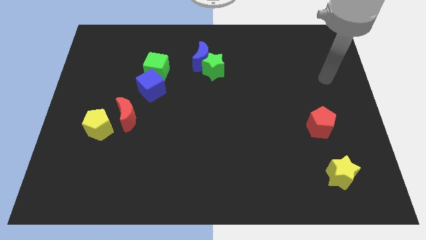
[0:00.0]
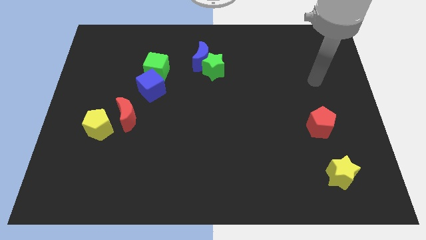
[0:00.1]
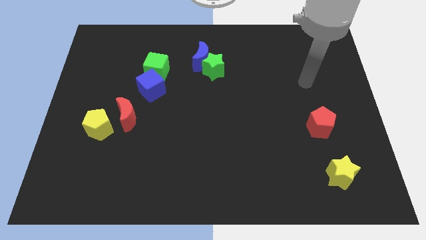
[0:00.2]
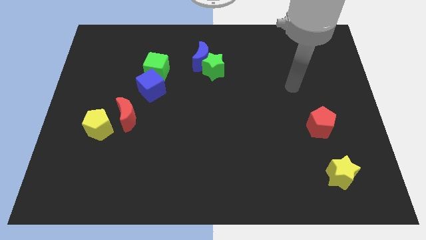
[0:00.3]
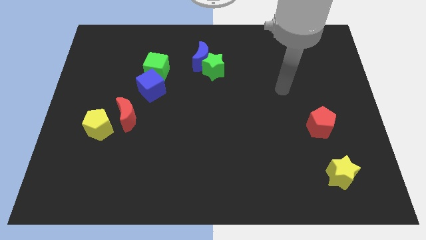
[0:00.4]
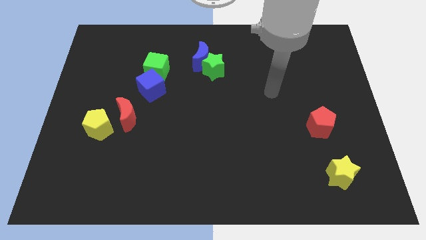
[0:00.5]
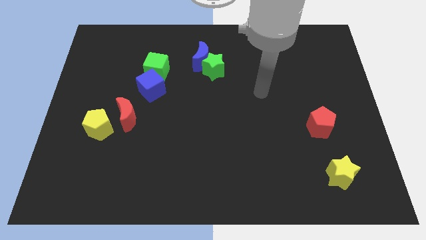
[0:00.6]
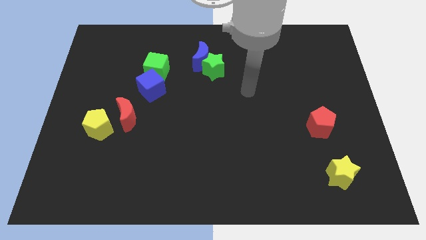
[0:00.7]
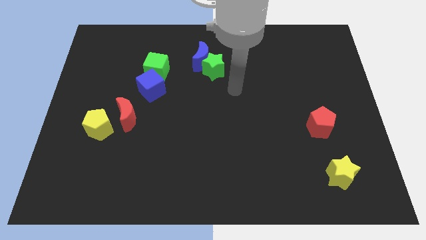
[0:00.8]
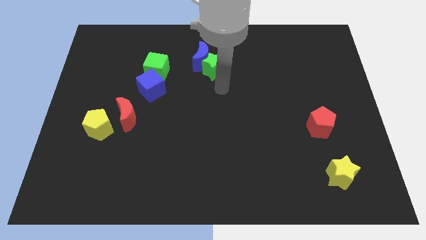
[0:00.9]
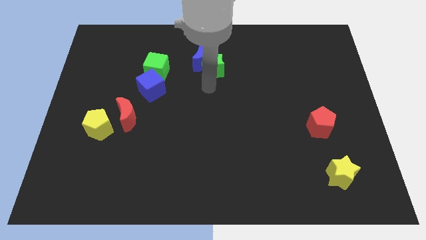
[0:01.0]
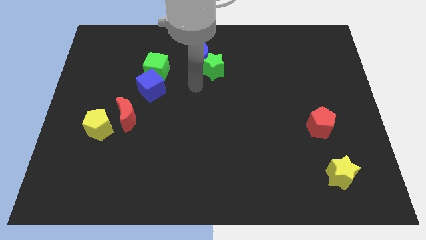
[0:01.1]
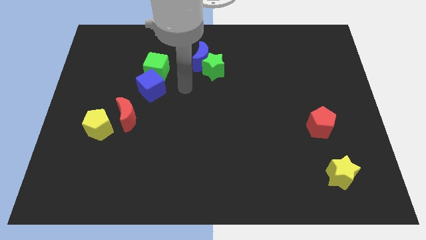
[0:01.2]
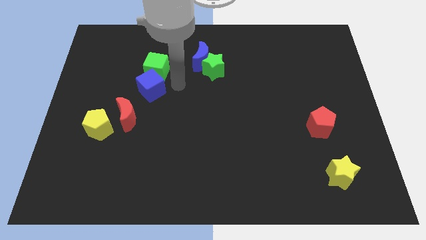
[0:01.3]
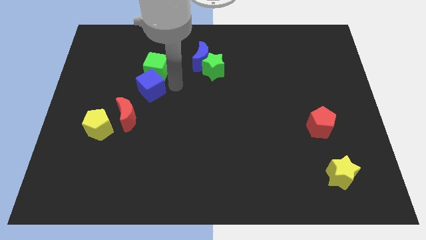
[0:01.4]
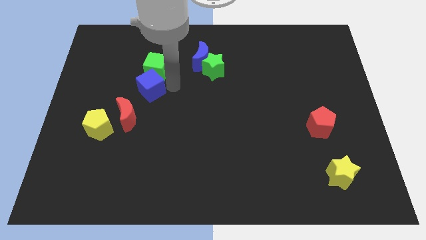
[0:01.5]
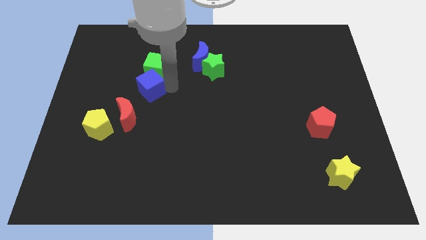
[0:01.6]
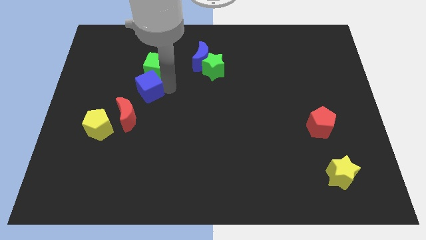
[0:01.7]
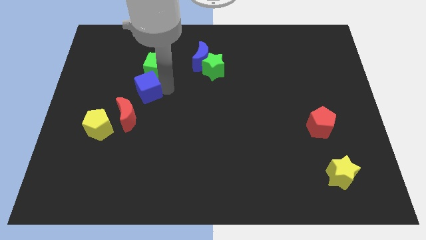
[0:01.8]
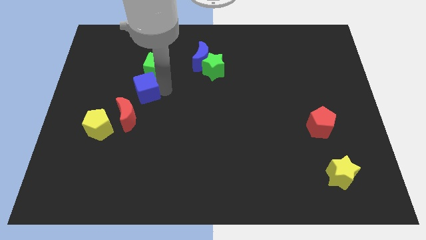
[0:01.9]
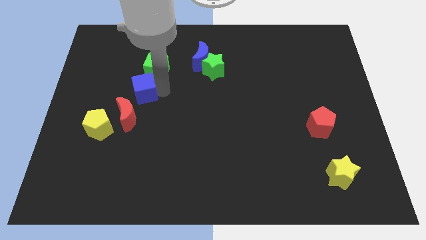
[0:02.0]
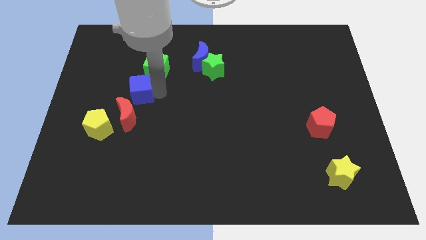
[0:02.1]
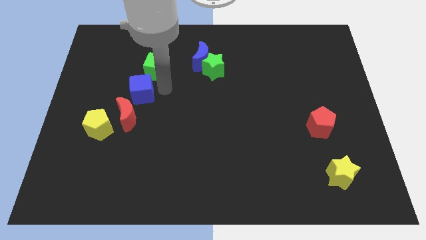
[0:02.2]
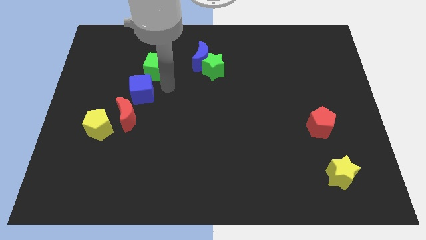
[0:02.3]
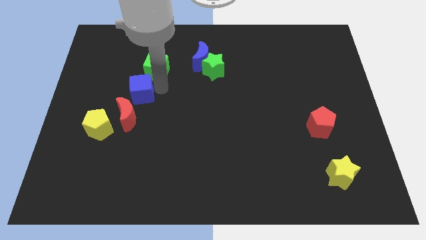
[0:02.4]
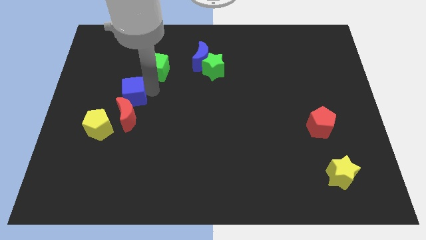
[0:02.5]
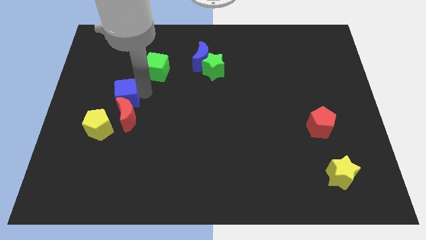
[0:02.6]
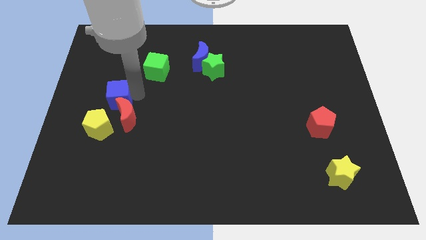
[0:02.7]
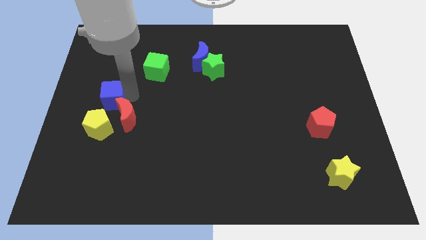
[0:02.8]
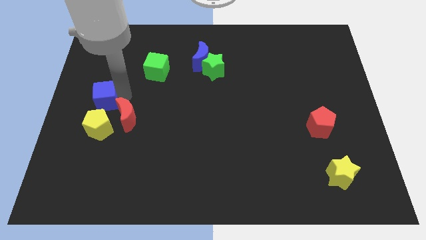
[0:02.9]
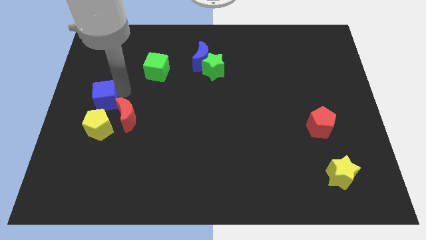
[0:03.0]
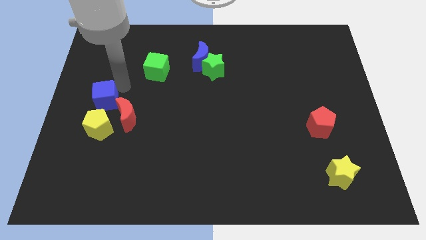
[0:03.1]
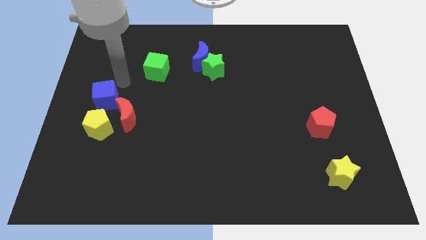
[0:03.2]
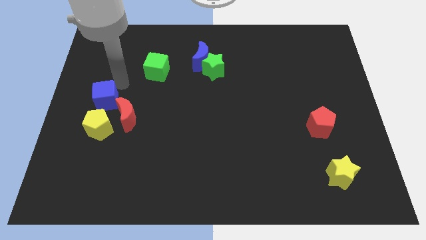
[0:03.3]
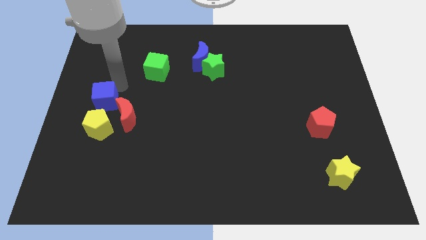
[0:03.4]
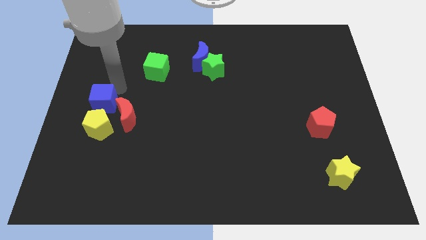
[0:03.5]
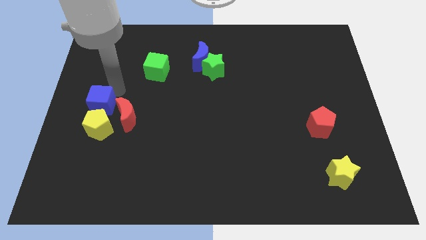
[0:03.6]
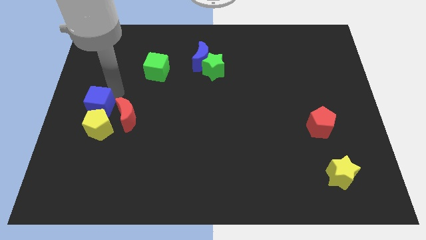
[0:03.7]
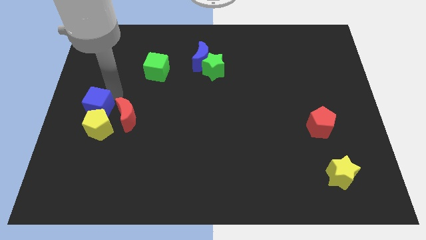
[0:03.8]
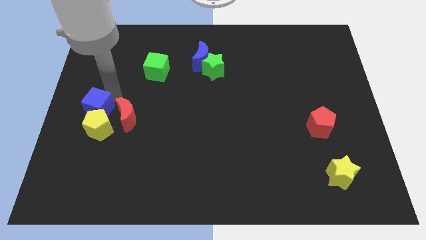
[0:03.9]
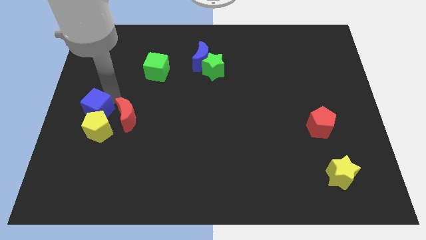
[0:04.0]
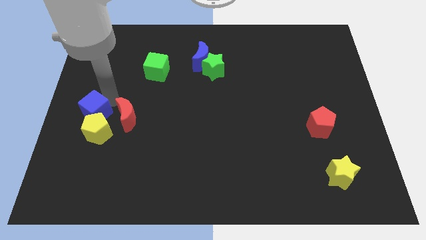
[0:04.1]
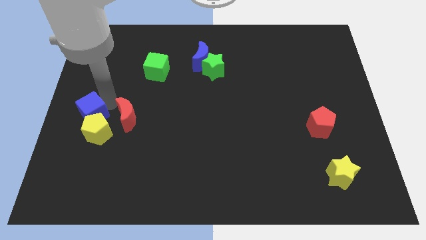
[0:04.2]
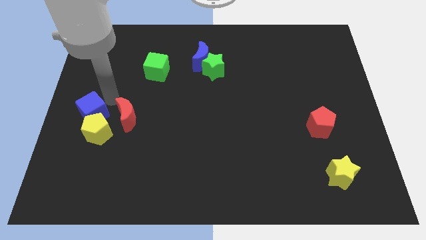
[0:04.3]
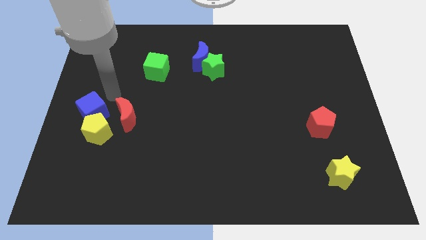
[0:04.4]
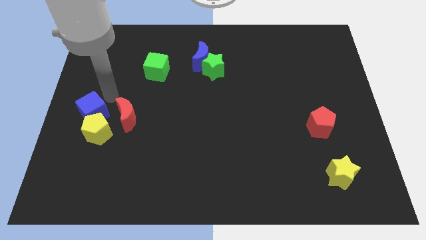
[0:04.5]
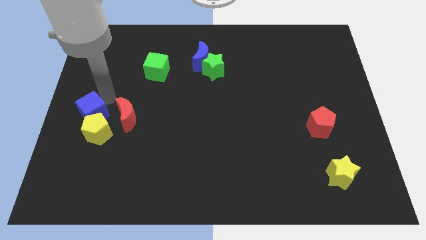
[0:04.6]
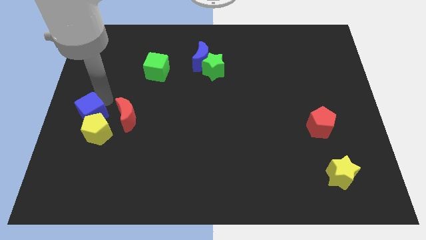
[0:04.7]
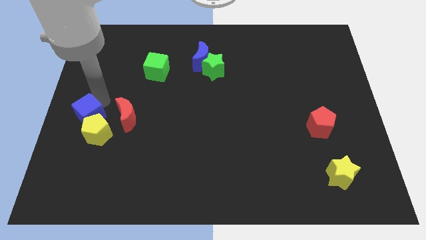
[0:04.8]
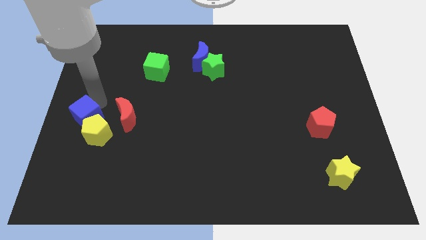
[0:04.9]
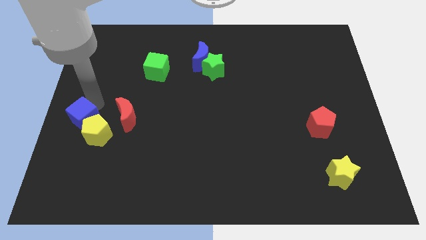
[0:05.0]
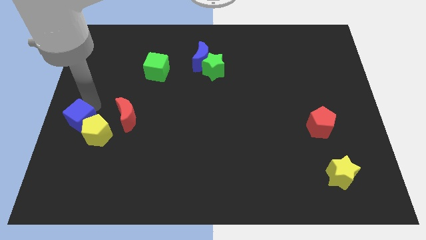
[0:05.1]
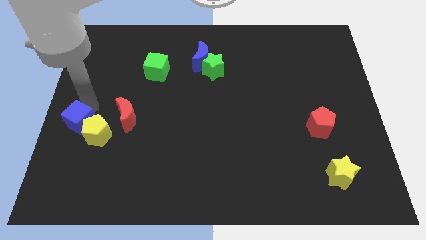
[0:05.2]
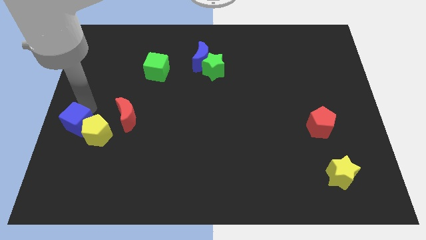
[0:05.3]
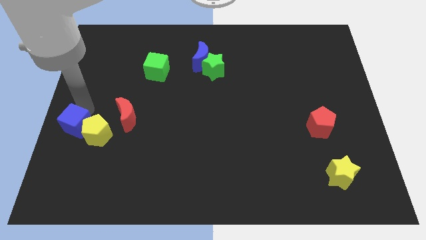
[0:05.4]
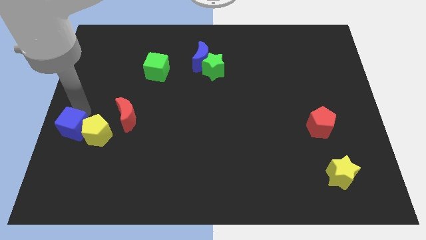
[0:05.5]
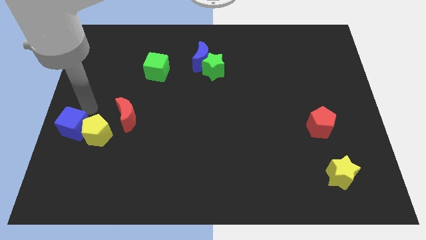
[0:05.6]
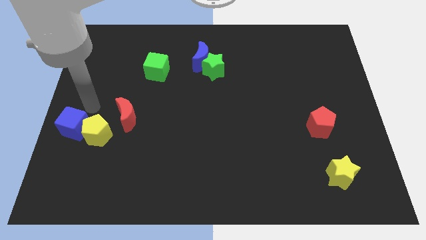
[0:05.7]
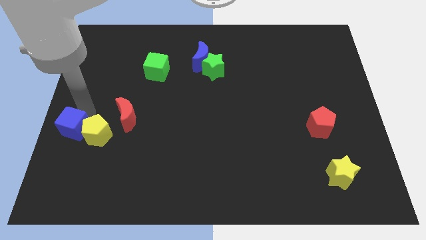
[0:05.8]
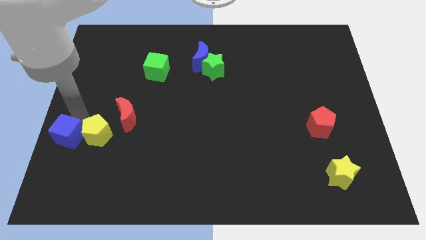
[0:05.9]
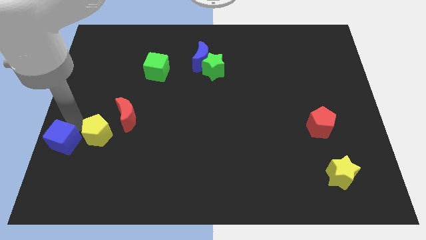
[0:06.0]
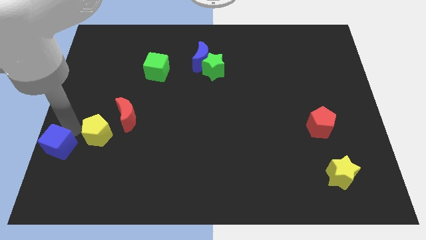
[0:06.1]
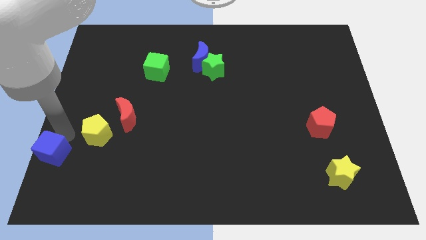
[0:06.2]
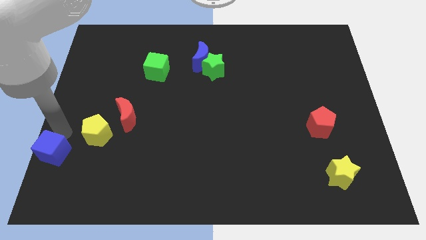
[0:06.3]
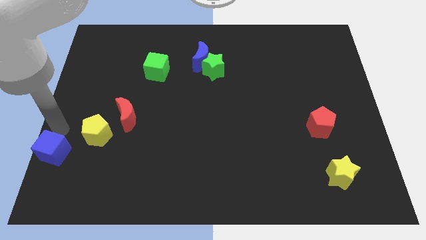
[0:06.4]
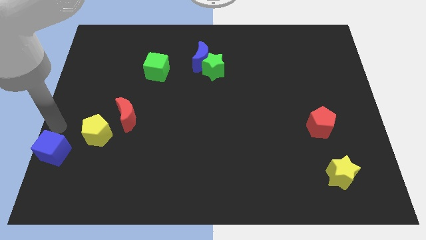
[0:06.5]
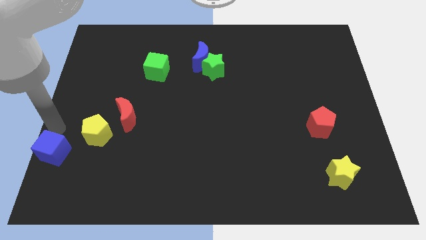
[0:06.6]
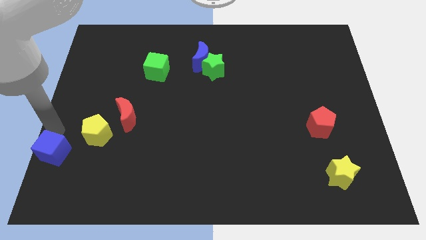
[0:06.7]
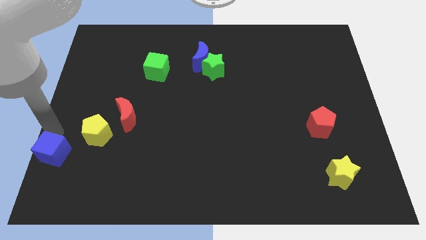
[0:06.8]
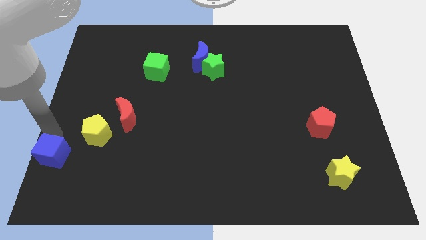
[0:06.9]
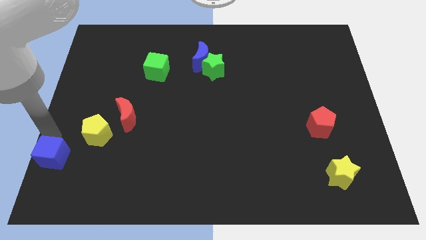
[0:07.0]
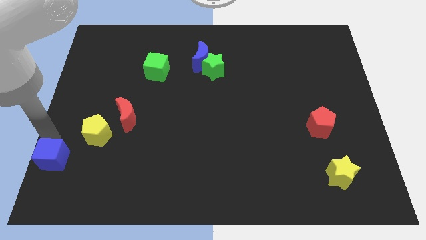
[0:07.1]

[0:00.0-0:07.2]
slide the blue cube to the bottom left of the board
